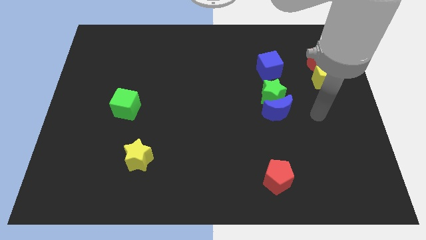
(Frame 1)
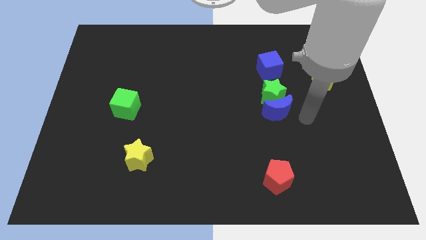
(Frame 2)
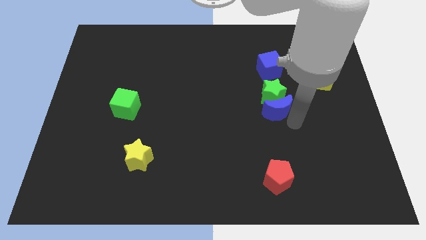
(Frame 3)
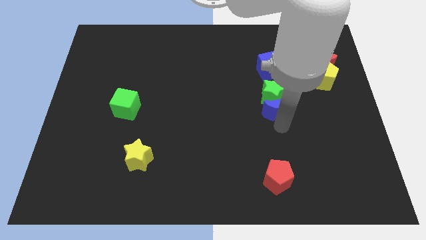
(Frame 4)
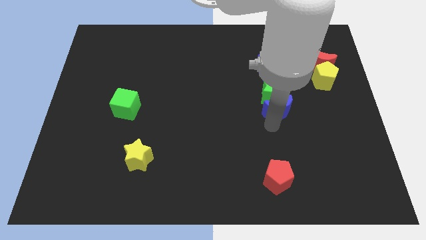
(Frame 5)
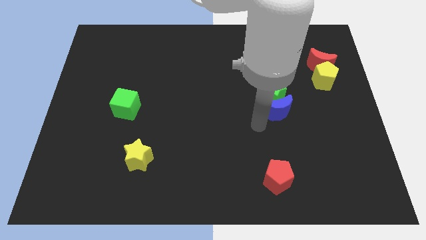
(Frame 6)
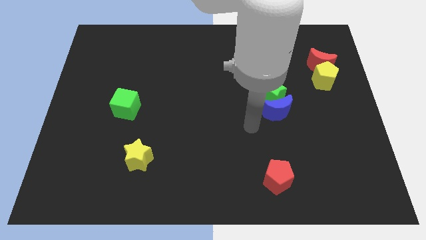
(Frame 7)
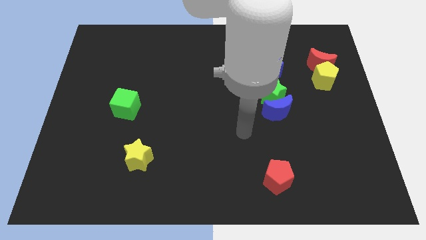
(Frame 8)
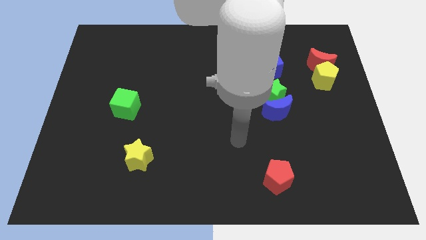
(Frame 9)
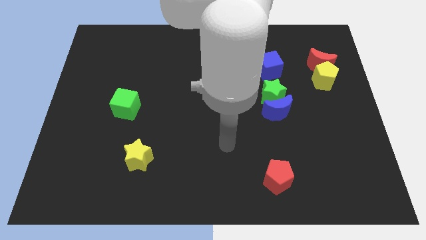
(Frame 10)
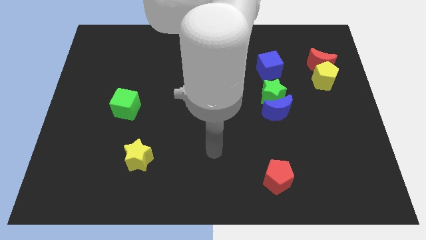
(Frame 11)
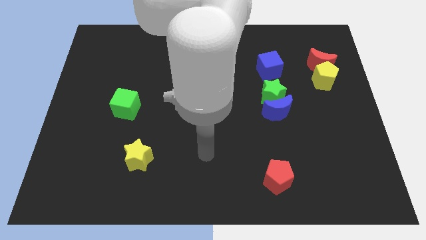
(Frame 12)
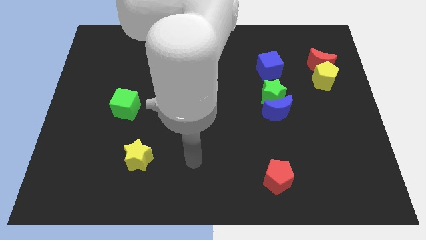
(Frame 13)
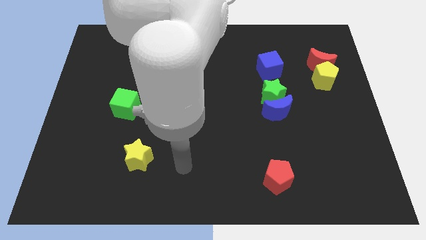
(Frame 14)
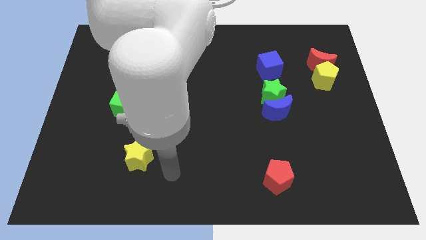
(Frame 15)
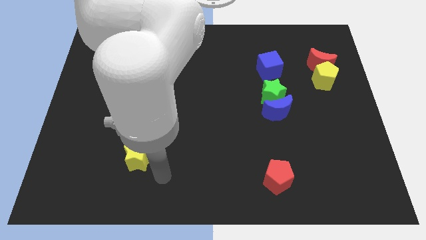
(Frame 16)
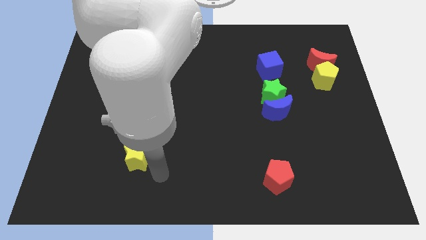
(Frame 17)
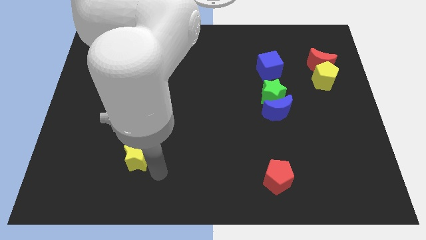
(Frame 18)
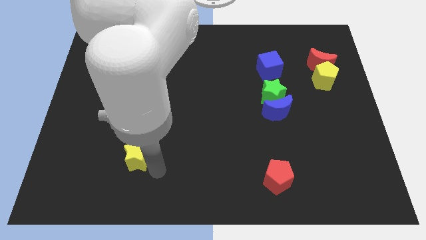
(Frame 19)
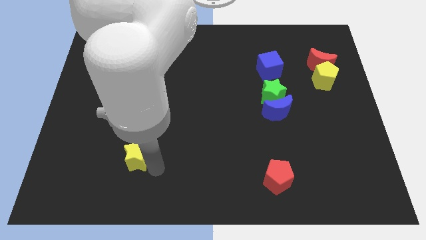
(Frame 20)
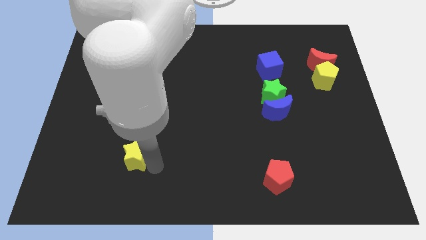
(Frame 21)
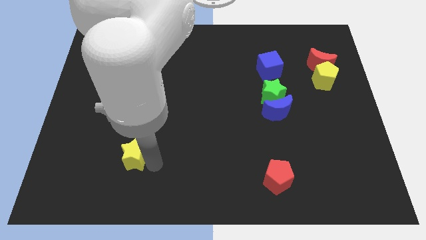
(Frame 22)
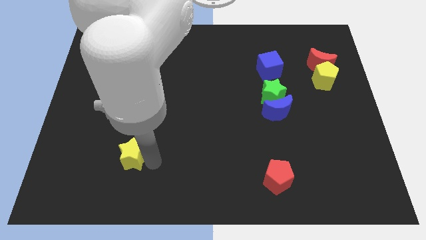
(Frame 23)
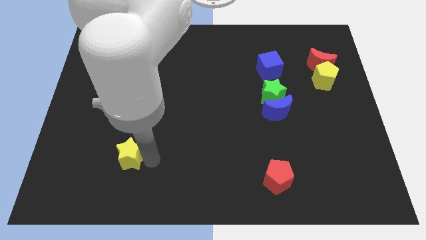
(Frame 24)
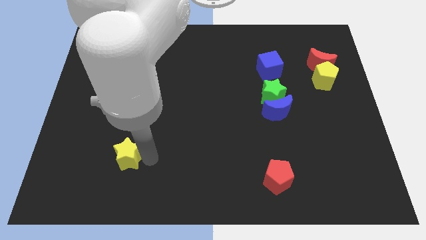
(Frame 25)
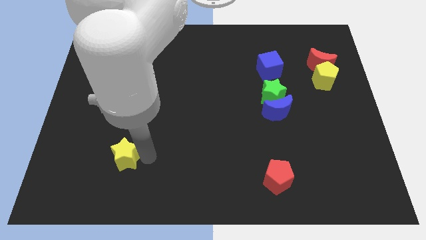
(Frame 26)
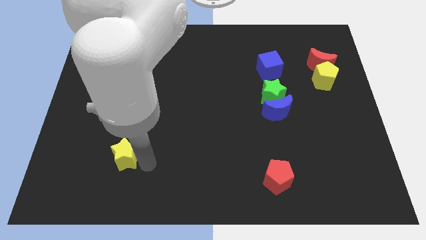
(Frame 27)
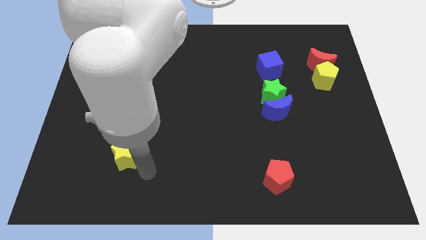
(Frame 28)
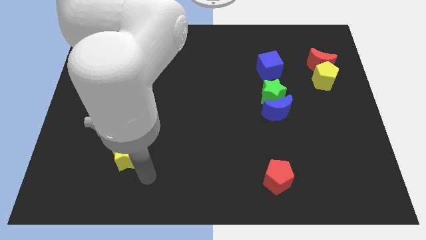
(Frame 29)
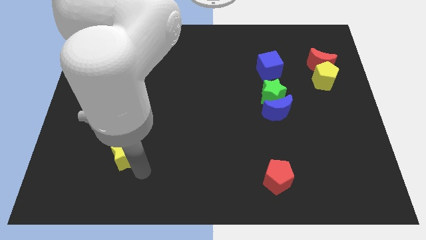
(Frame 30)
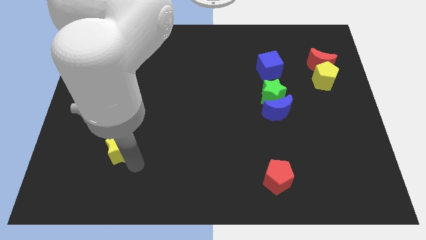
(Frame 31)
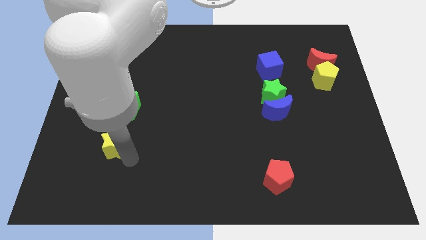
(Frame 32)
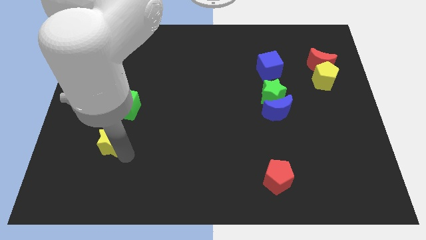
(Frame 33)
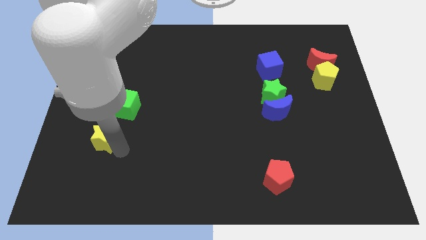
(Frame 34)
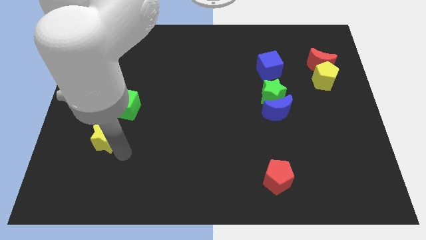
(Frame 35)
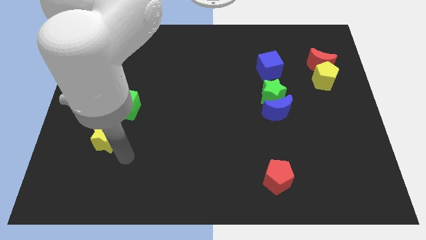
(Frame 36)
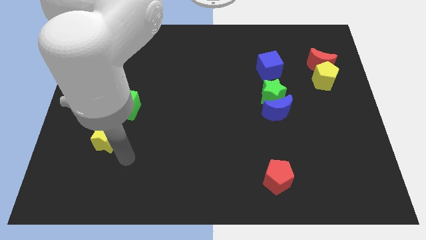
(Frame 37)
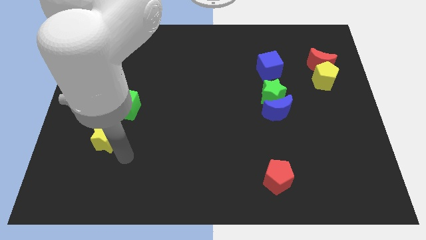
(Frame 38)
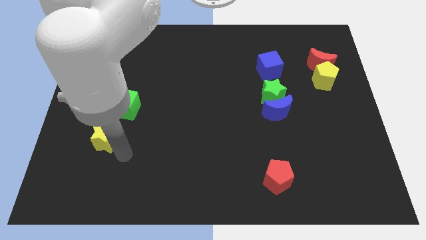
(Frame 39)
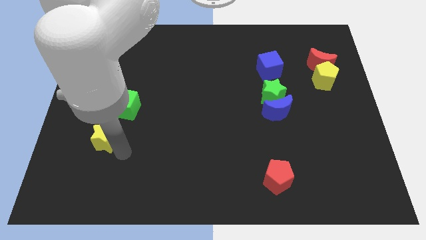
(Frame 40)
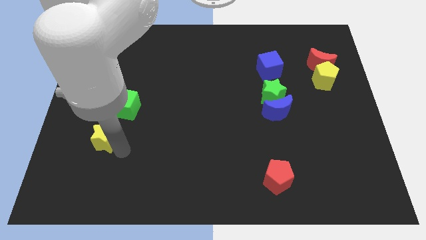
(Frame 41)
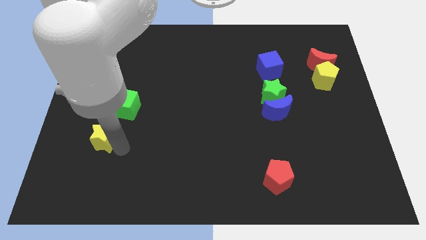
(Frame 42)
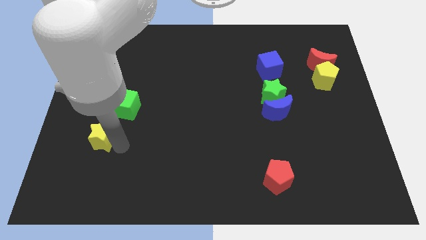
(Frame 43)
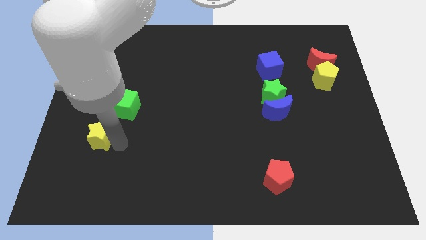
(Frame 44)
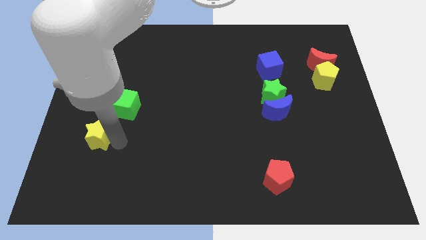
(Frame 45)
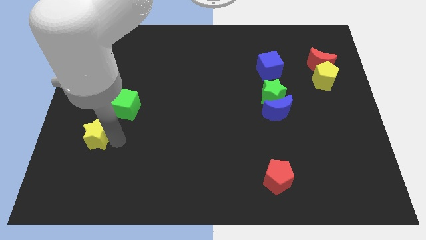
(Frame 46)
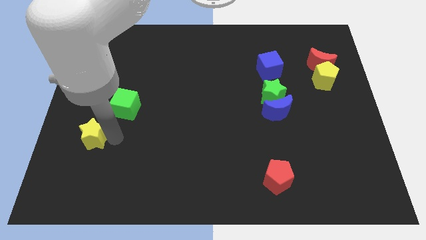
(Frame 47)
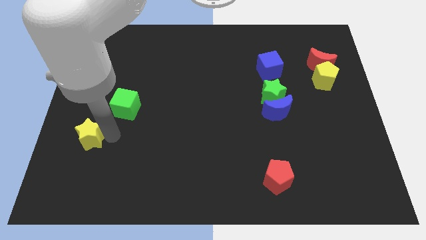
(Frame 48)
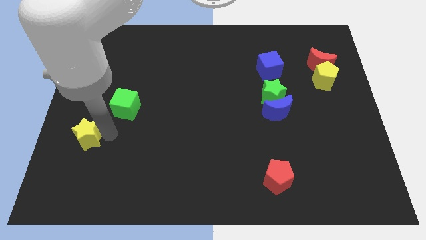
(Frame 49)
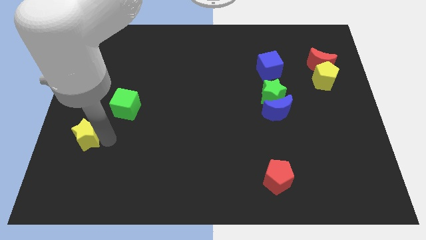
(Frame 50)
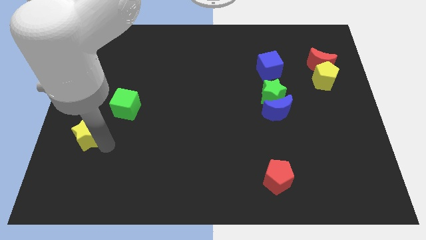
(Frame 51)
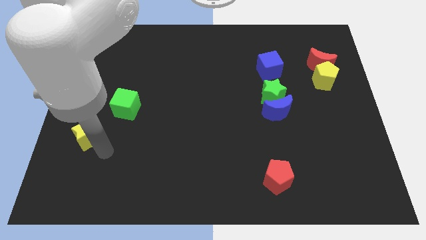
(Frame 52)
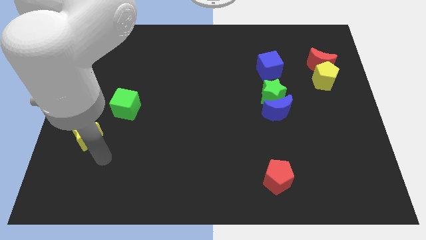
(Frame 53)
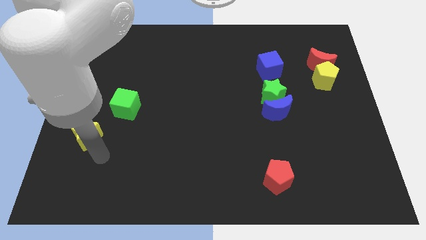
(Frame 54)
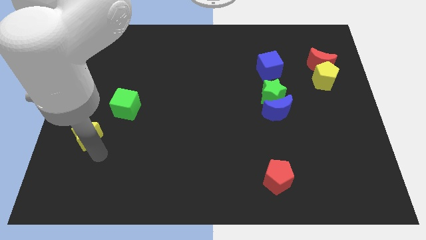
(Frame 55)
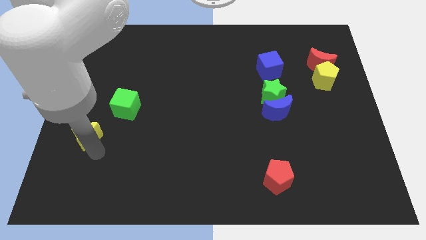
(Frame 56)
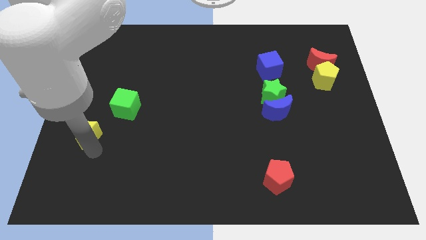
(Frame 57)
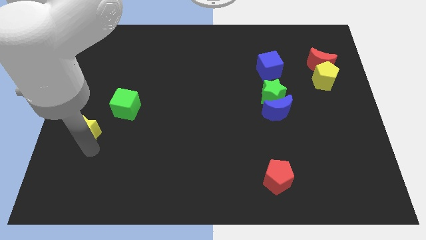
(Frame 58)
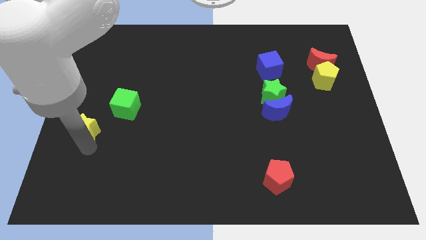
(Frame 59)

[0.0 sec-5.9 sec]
move the yellow star to the left side of the board

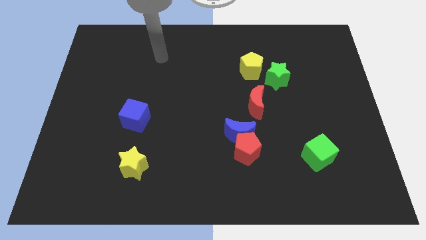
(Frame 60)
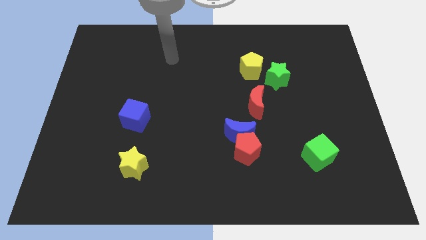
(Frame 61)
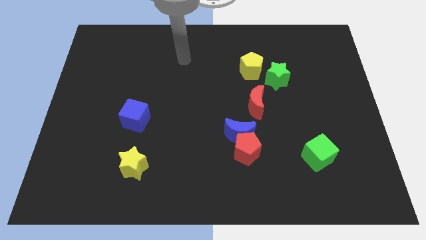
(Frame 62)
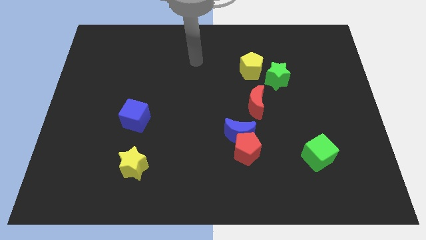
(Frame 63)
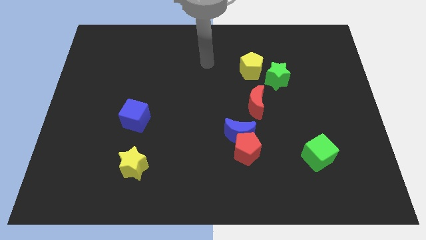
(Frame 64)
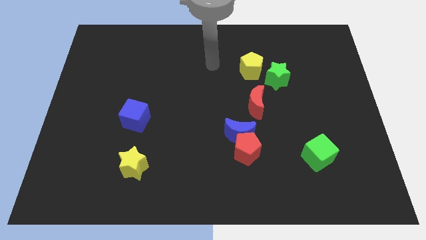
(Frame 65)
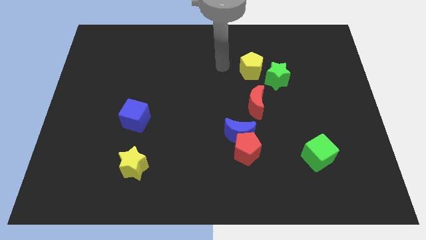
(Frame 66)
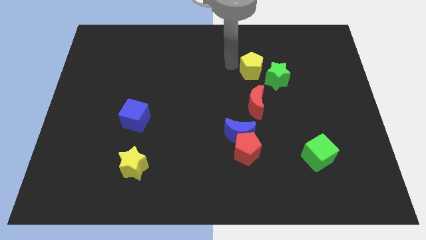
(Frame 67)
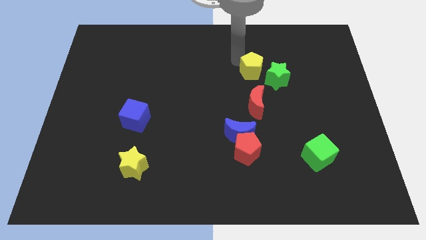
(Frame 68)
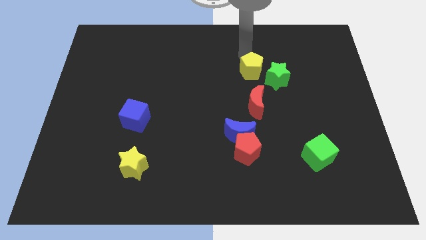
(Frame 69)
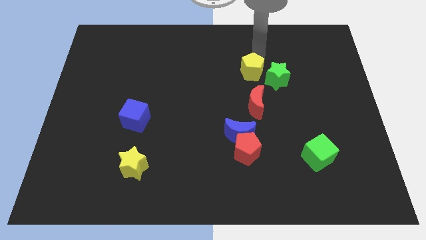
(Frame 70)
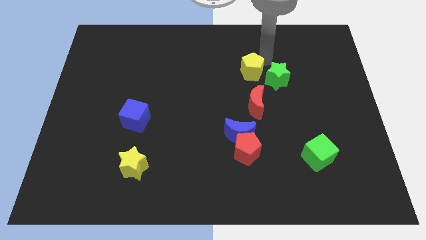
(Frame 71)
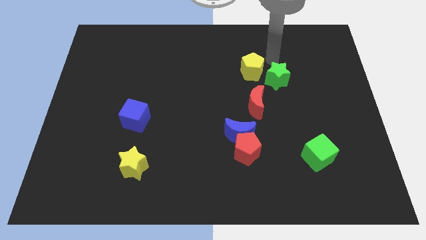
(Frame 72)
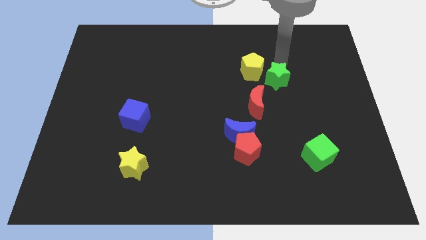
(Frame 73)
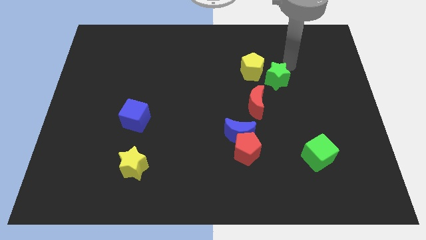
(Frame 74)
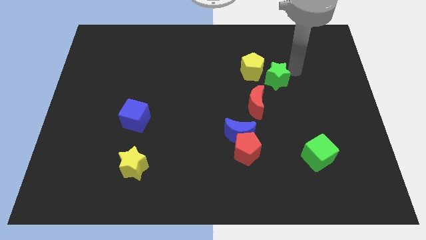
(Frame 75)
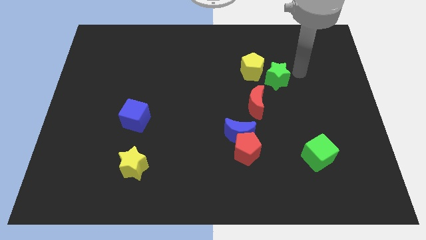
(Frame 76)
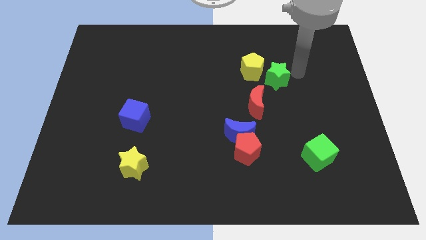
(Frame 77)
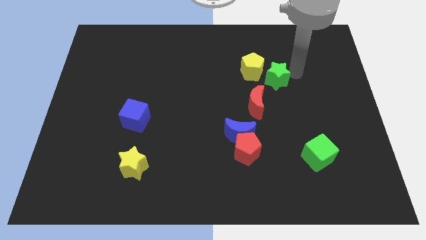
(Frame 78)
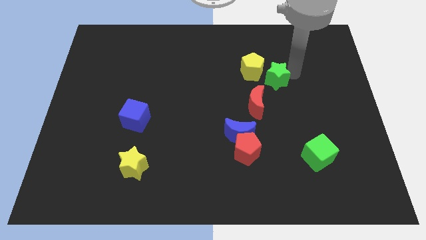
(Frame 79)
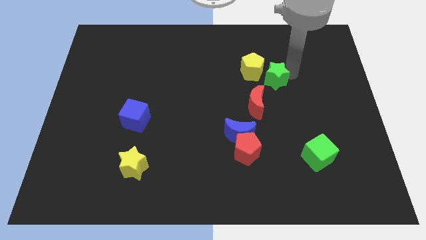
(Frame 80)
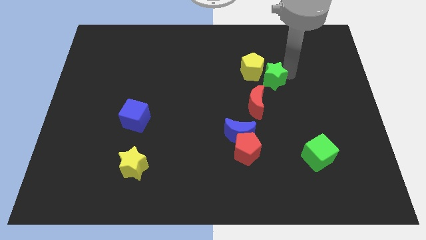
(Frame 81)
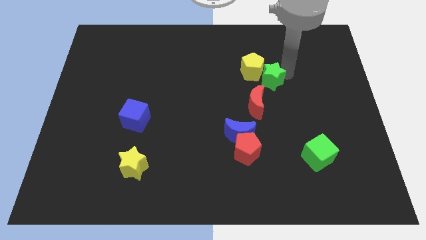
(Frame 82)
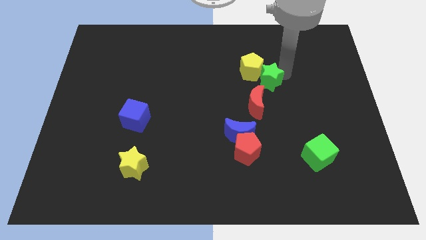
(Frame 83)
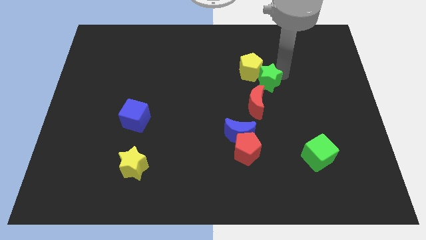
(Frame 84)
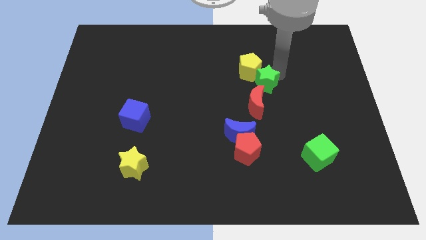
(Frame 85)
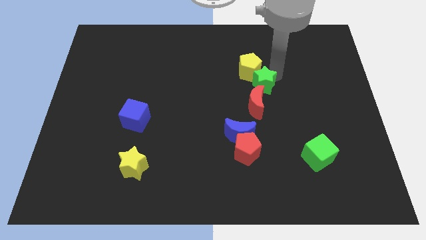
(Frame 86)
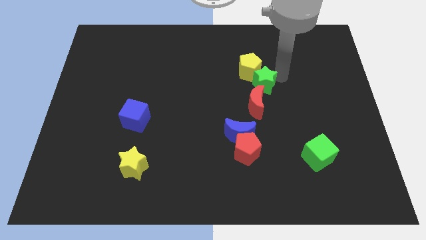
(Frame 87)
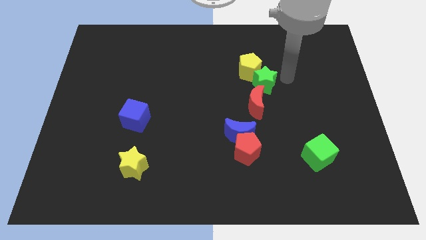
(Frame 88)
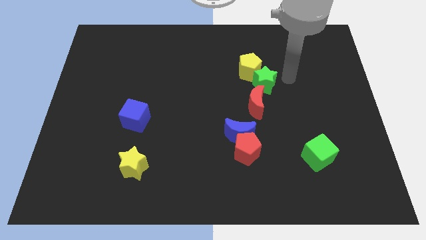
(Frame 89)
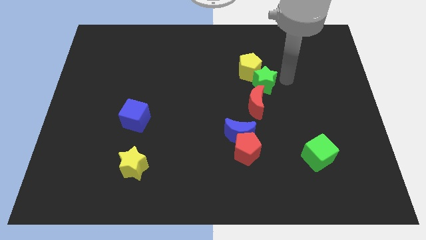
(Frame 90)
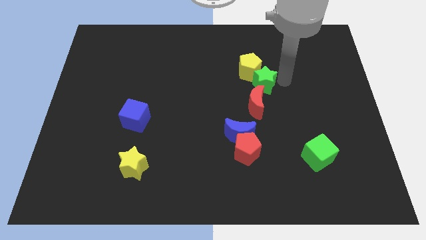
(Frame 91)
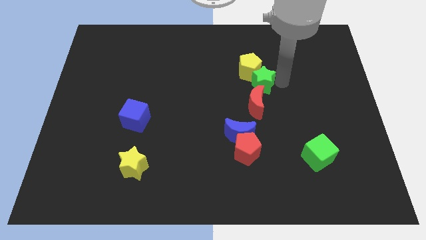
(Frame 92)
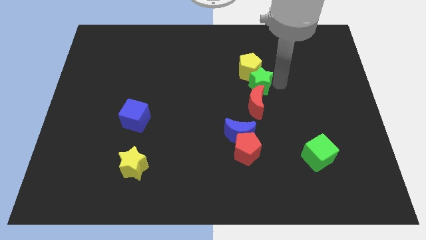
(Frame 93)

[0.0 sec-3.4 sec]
push the green star to the middle
